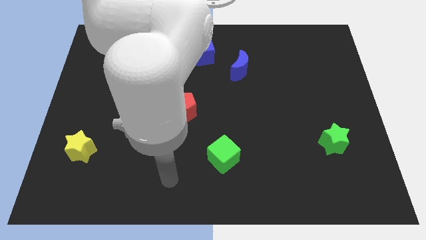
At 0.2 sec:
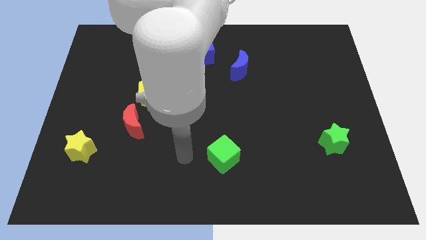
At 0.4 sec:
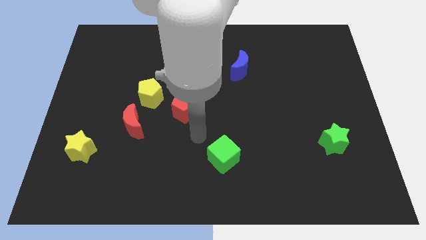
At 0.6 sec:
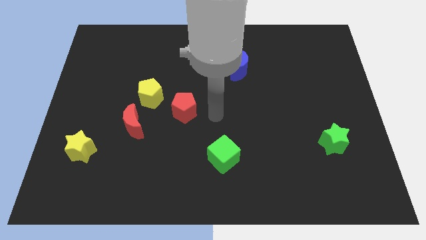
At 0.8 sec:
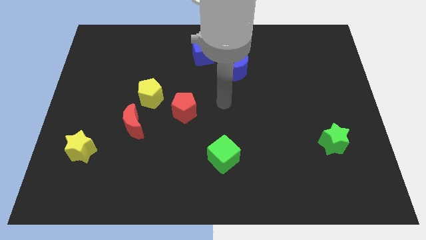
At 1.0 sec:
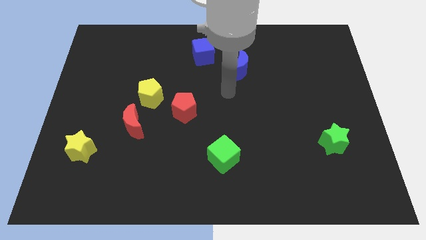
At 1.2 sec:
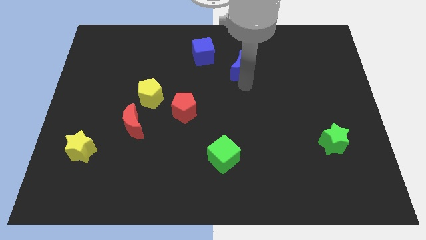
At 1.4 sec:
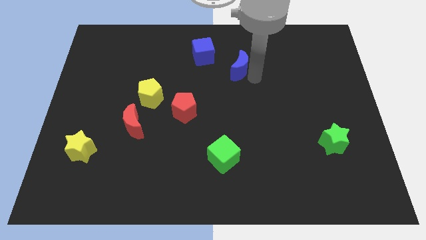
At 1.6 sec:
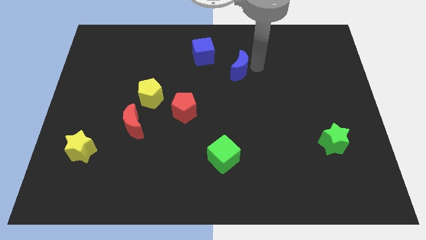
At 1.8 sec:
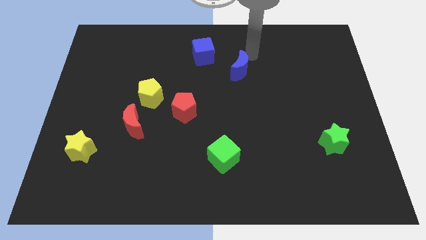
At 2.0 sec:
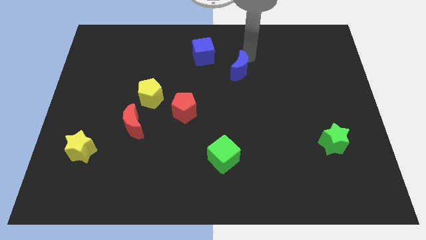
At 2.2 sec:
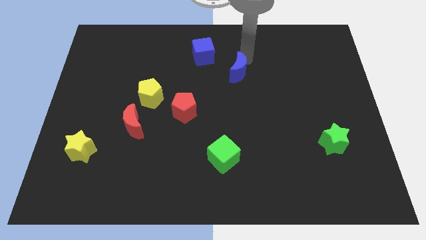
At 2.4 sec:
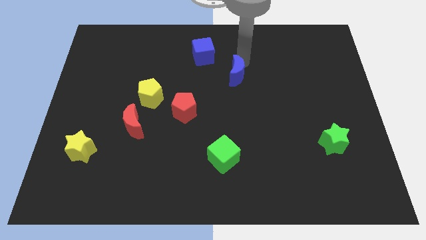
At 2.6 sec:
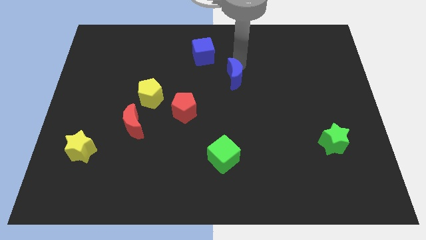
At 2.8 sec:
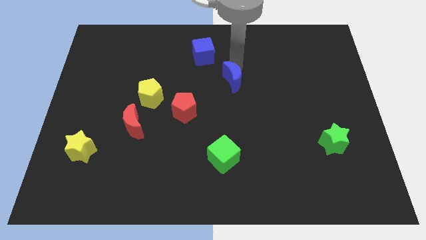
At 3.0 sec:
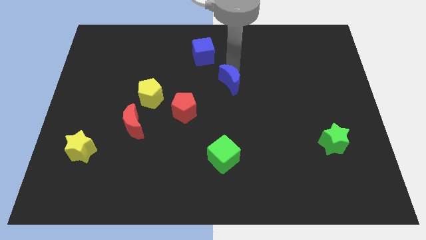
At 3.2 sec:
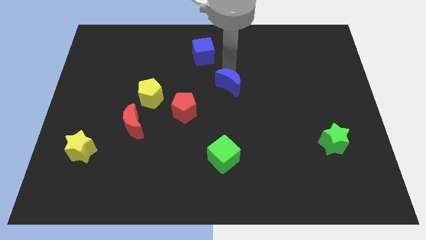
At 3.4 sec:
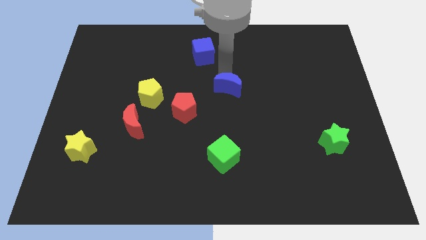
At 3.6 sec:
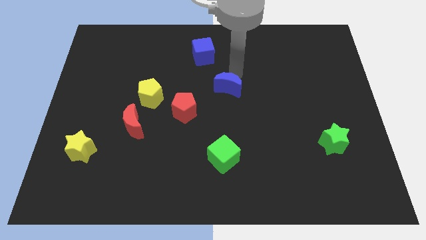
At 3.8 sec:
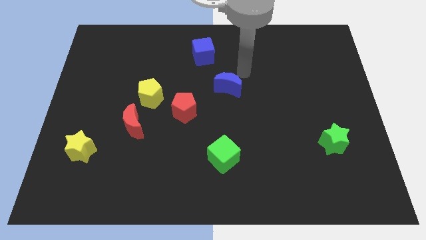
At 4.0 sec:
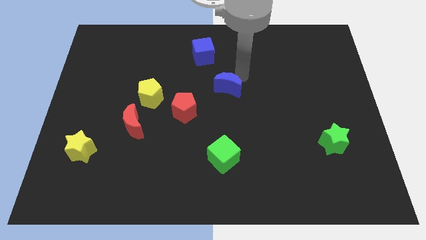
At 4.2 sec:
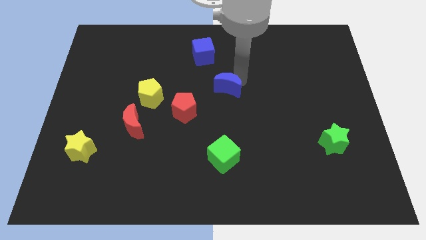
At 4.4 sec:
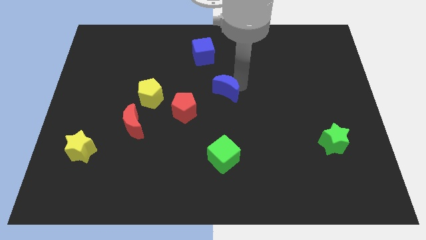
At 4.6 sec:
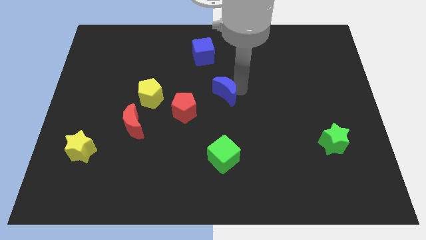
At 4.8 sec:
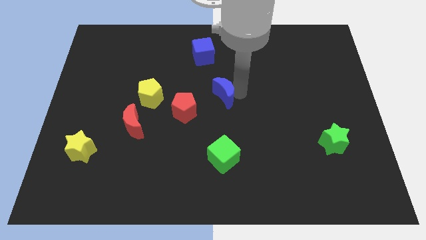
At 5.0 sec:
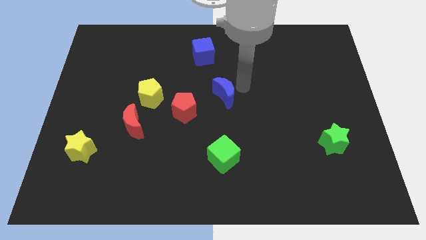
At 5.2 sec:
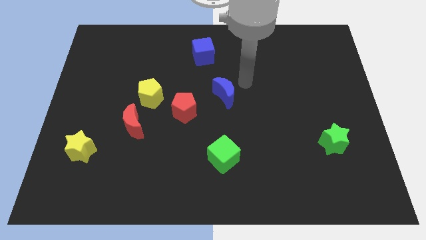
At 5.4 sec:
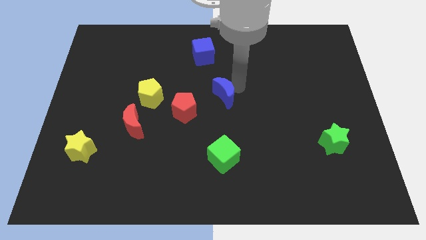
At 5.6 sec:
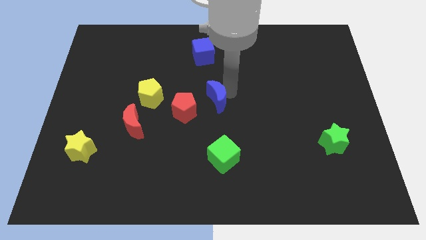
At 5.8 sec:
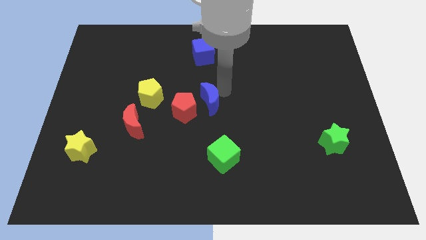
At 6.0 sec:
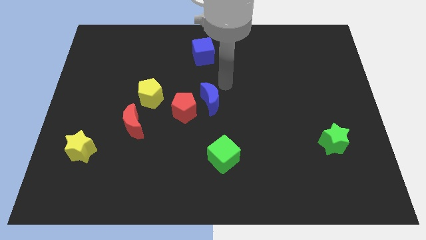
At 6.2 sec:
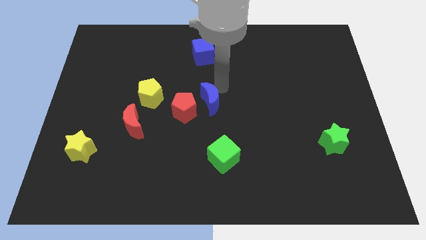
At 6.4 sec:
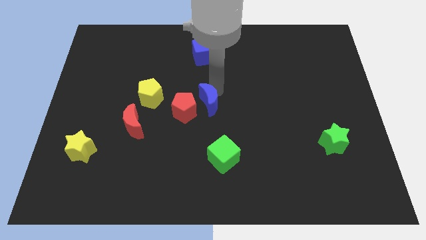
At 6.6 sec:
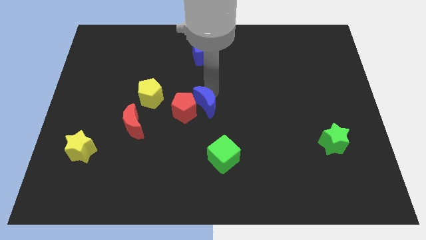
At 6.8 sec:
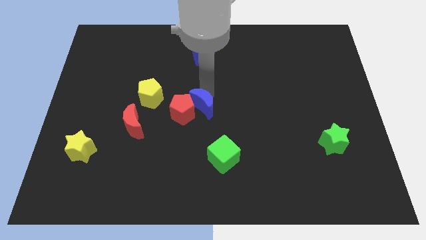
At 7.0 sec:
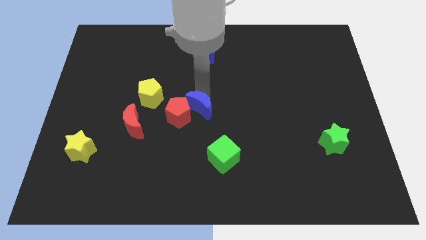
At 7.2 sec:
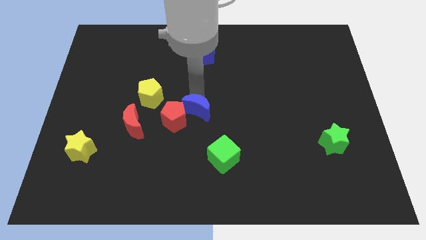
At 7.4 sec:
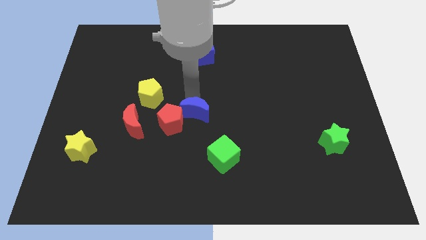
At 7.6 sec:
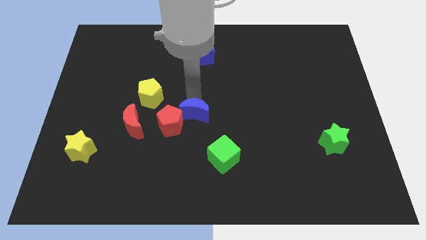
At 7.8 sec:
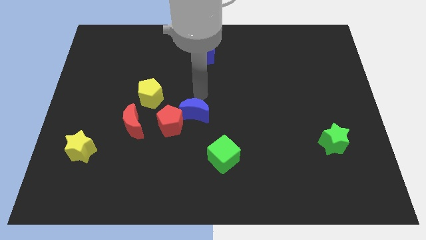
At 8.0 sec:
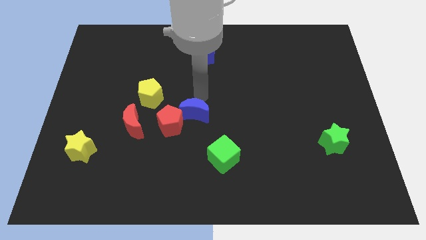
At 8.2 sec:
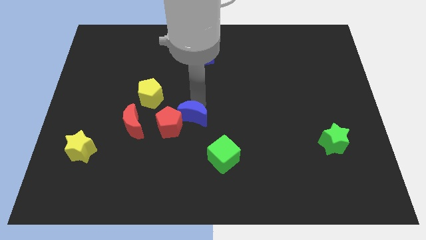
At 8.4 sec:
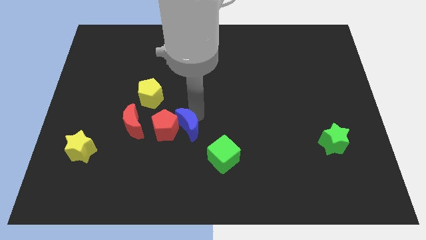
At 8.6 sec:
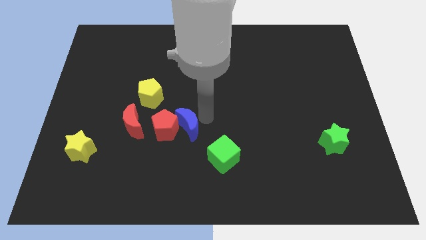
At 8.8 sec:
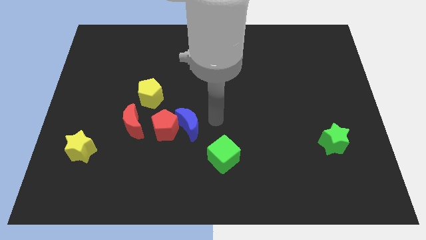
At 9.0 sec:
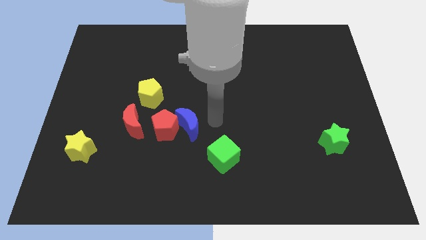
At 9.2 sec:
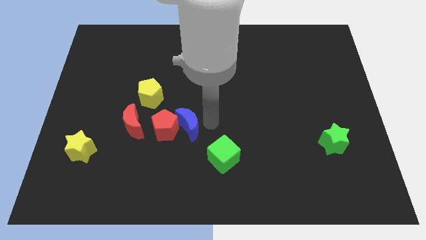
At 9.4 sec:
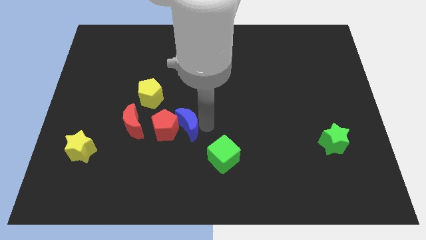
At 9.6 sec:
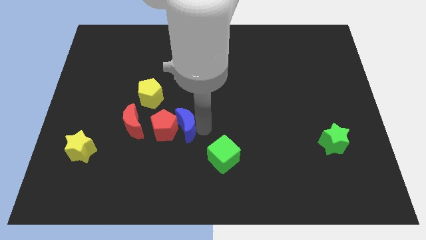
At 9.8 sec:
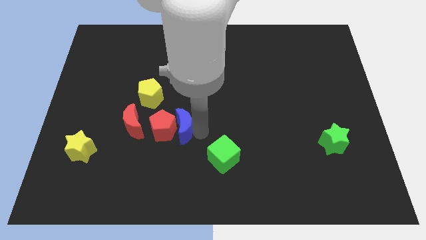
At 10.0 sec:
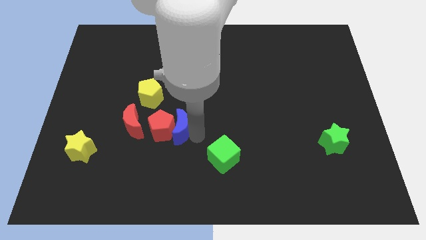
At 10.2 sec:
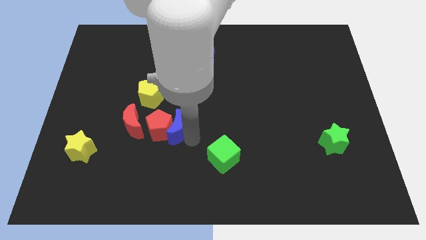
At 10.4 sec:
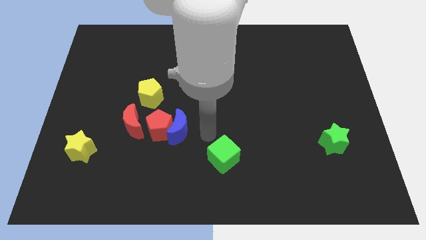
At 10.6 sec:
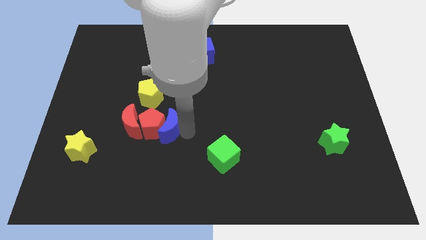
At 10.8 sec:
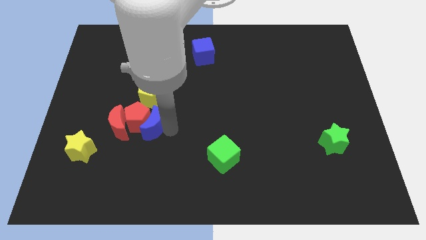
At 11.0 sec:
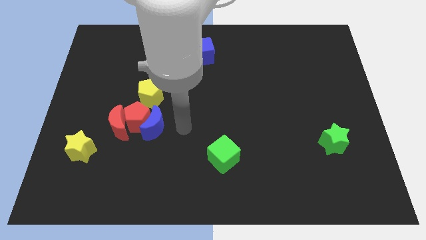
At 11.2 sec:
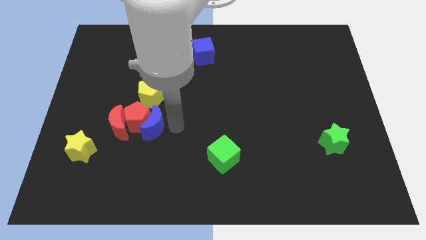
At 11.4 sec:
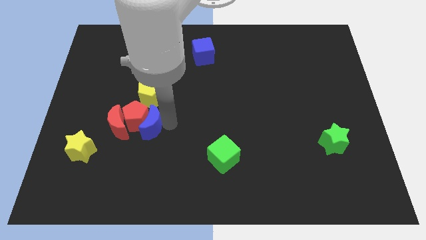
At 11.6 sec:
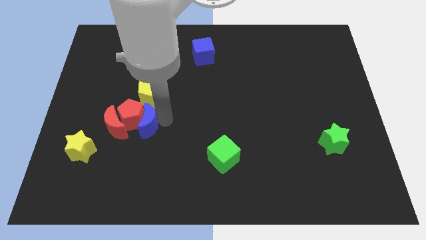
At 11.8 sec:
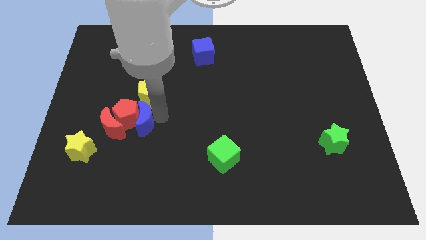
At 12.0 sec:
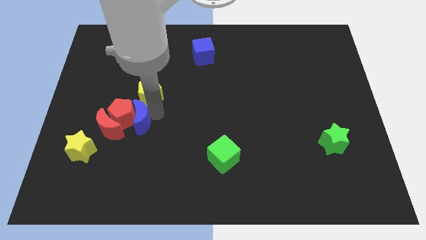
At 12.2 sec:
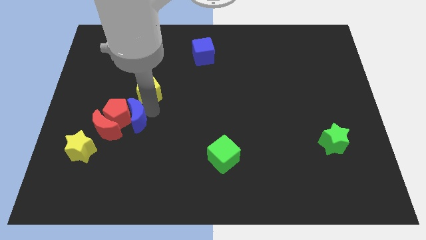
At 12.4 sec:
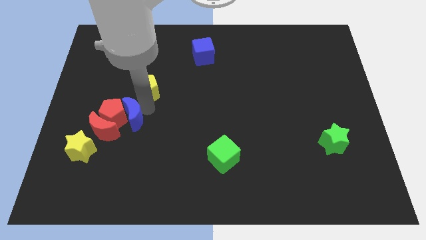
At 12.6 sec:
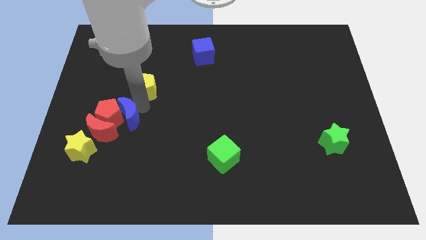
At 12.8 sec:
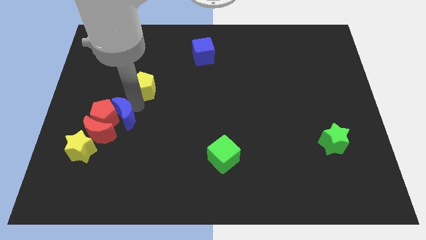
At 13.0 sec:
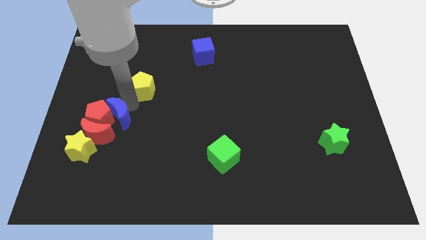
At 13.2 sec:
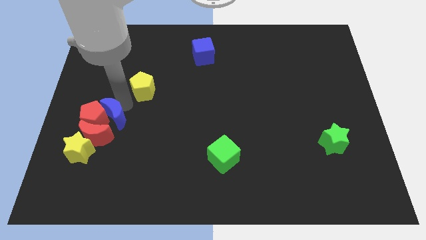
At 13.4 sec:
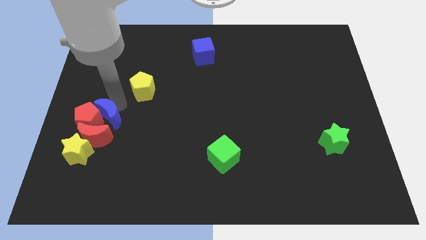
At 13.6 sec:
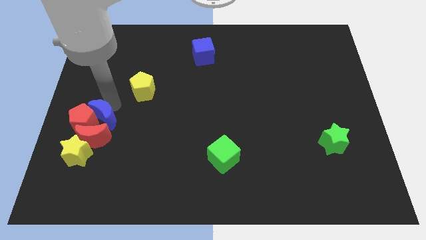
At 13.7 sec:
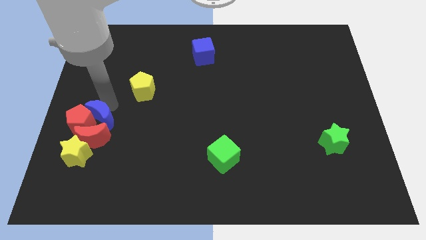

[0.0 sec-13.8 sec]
slide the blue moon towards the red moon
